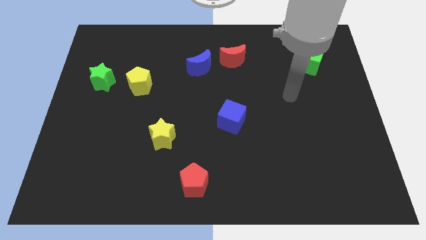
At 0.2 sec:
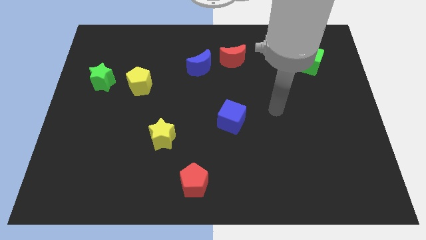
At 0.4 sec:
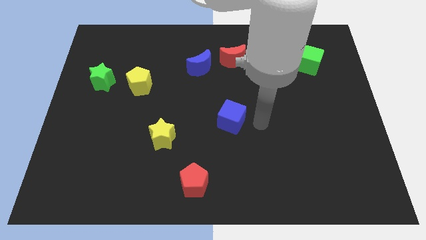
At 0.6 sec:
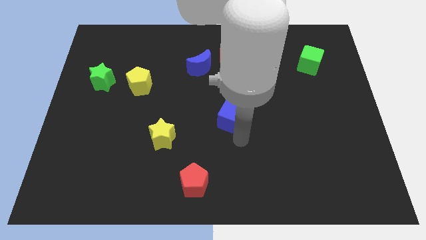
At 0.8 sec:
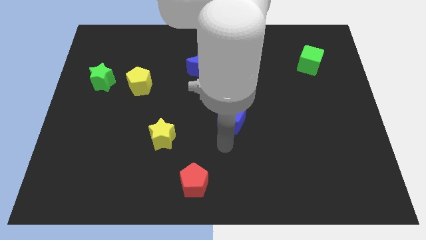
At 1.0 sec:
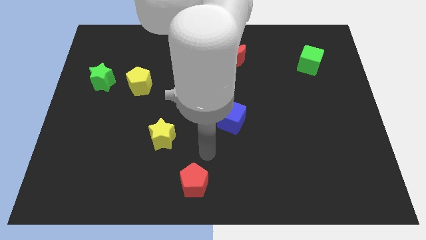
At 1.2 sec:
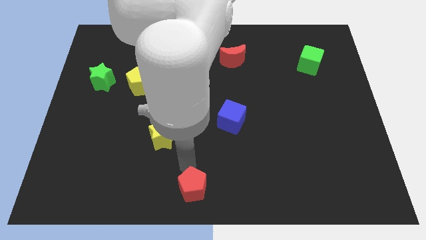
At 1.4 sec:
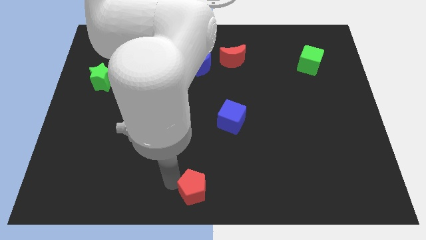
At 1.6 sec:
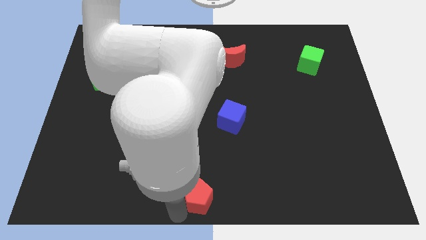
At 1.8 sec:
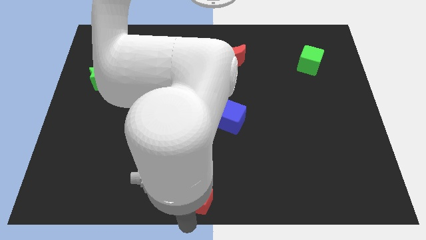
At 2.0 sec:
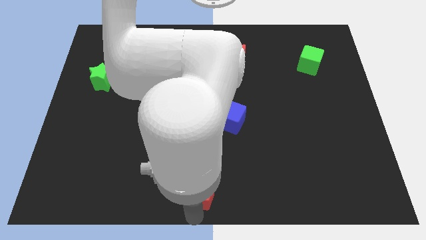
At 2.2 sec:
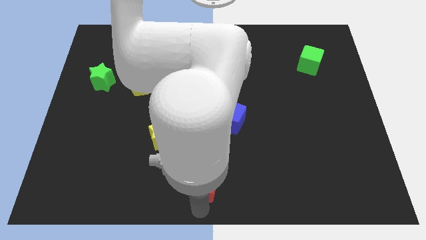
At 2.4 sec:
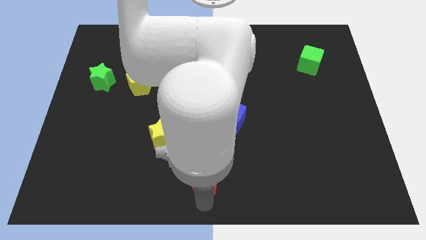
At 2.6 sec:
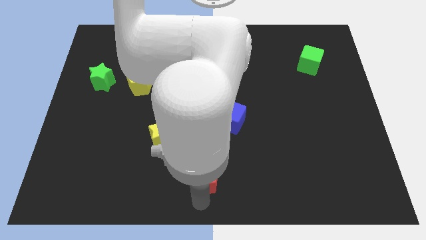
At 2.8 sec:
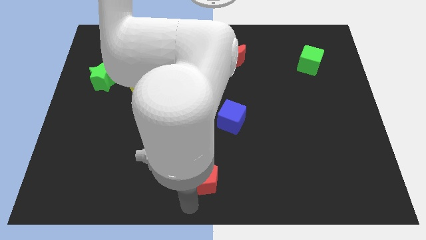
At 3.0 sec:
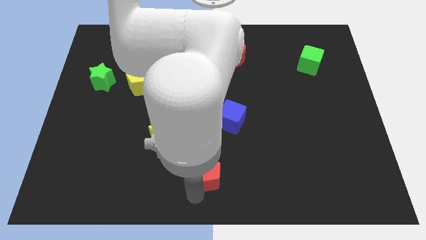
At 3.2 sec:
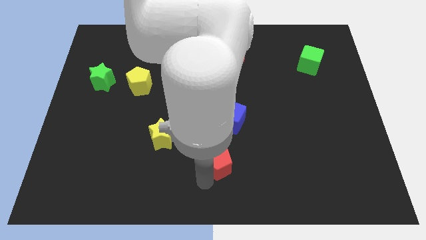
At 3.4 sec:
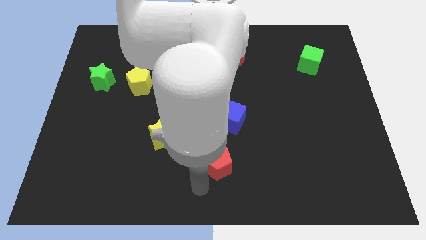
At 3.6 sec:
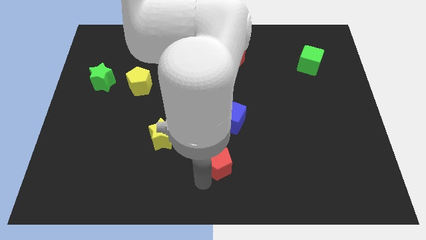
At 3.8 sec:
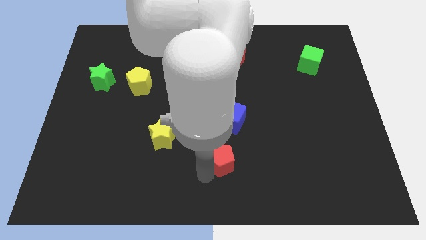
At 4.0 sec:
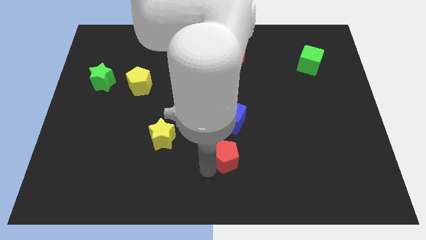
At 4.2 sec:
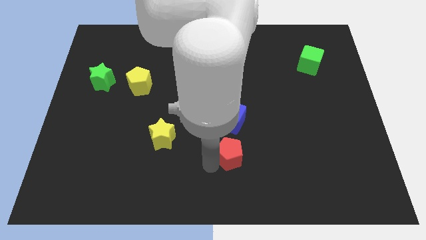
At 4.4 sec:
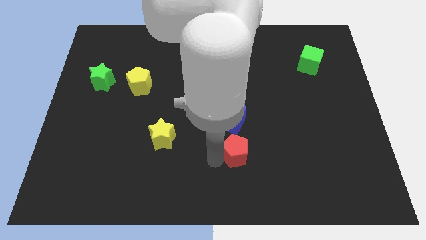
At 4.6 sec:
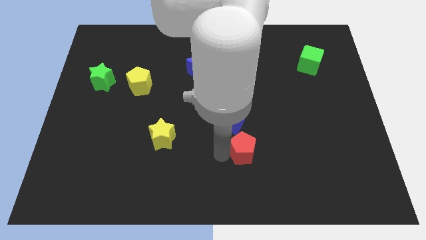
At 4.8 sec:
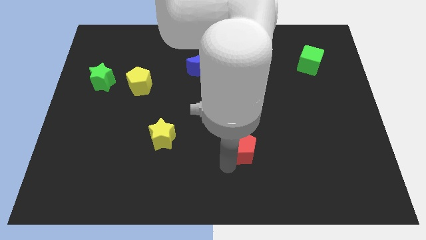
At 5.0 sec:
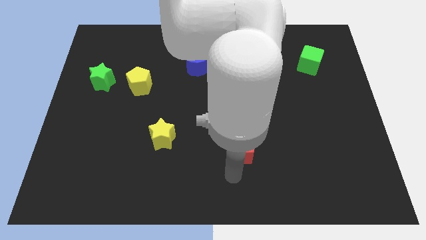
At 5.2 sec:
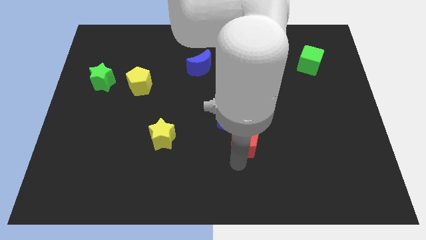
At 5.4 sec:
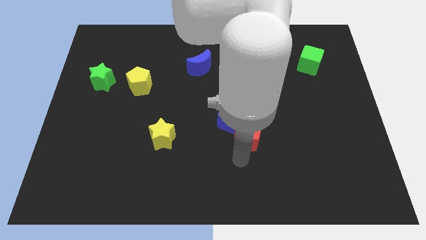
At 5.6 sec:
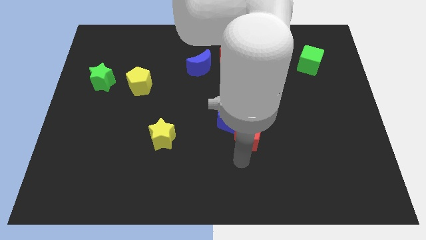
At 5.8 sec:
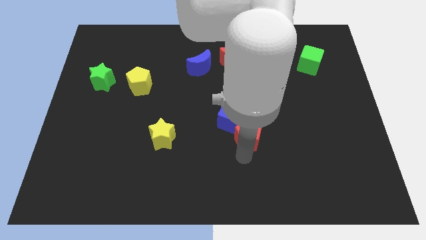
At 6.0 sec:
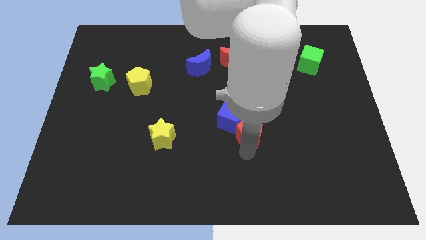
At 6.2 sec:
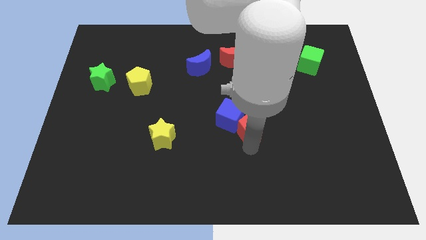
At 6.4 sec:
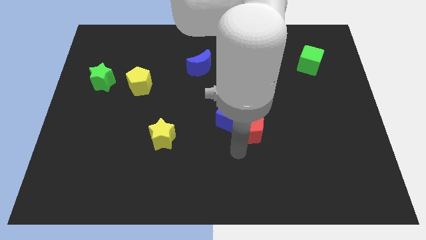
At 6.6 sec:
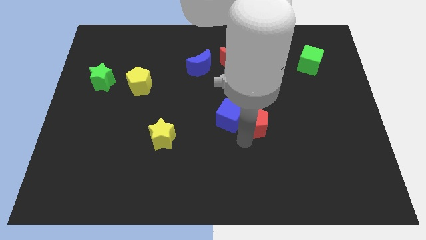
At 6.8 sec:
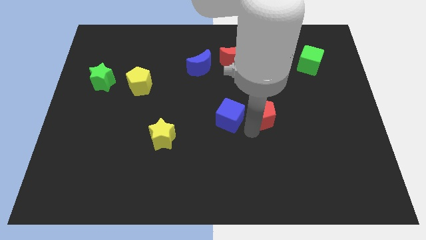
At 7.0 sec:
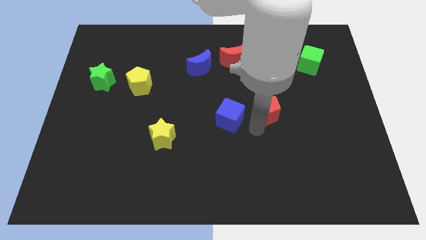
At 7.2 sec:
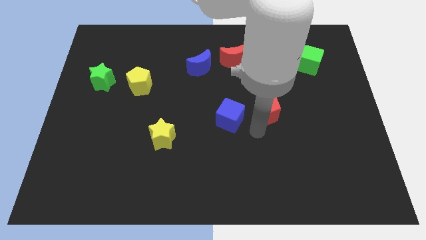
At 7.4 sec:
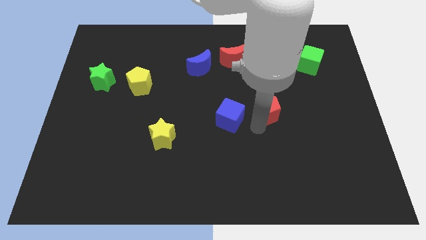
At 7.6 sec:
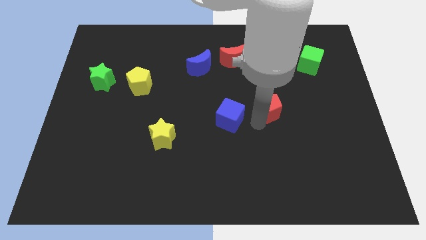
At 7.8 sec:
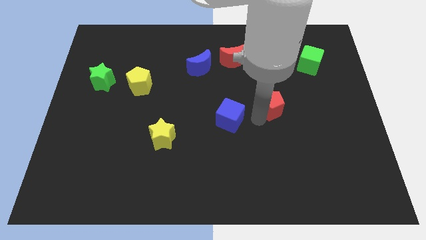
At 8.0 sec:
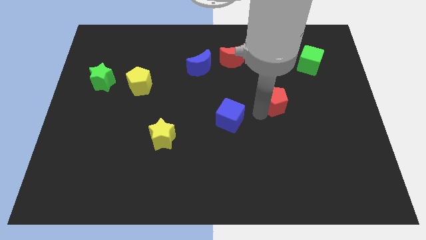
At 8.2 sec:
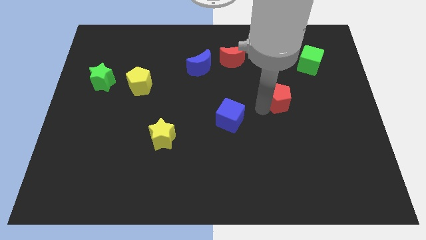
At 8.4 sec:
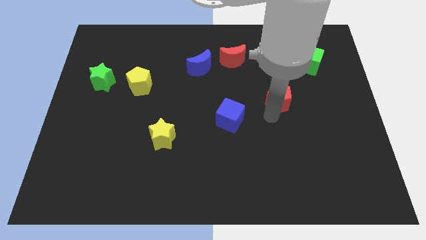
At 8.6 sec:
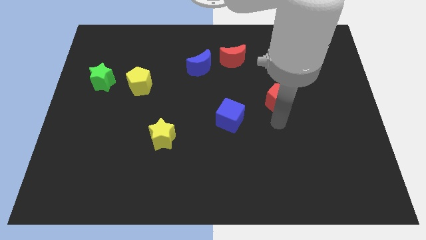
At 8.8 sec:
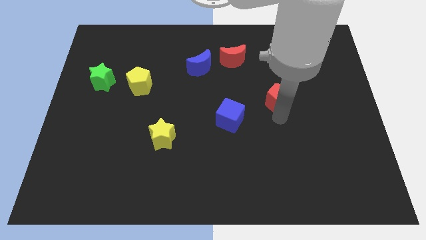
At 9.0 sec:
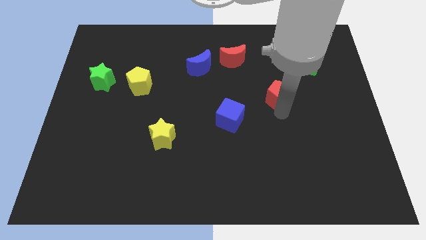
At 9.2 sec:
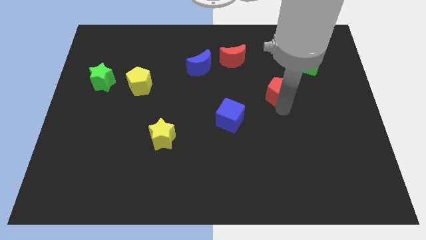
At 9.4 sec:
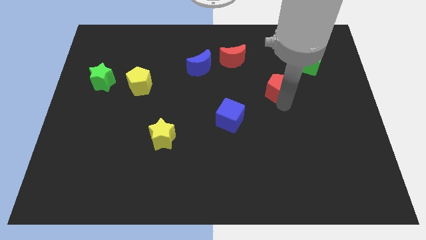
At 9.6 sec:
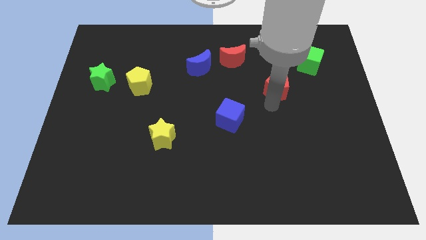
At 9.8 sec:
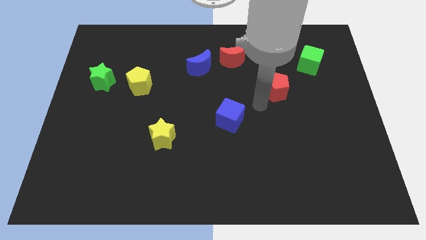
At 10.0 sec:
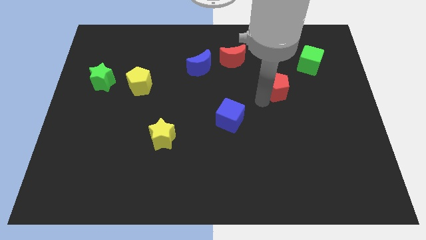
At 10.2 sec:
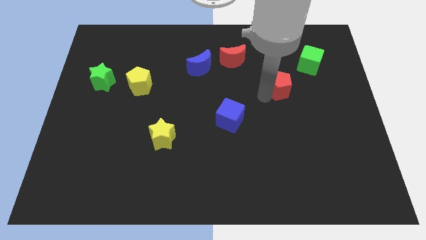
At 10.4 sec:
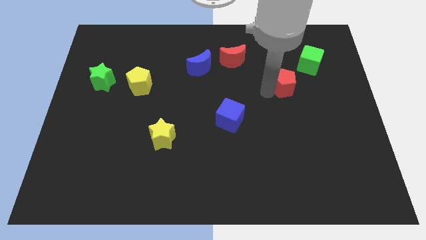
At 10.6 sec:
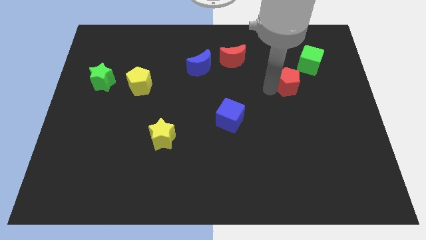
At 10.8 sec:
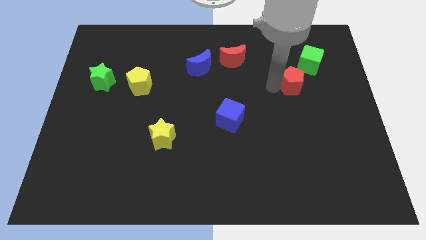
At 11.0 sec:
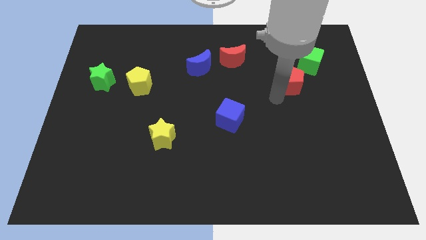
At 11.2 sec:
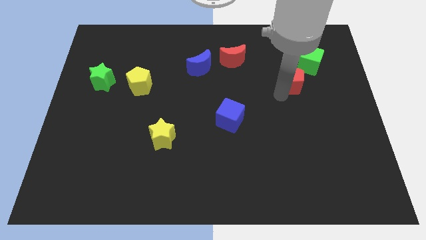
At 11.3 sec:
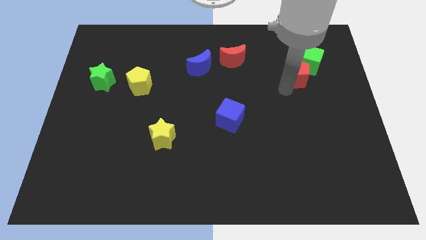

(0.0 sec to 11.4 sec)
move the red pentagon towards the green cube

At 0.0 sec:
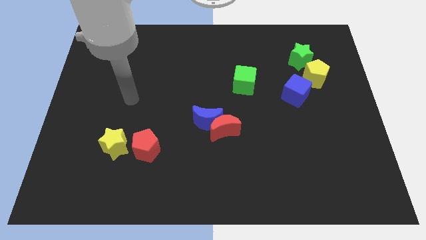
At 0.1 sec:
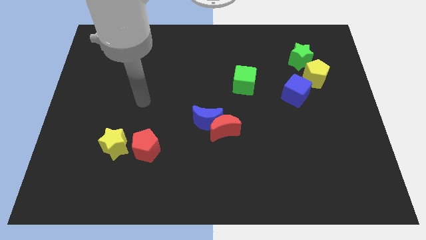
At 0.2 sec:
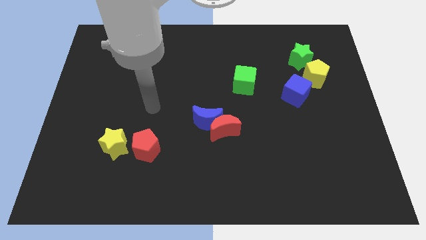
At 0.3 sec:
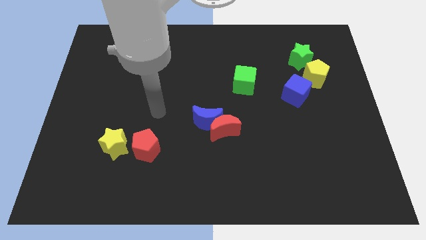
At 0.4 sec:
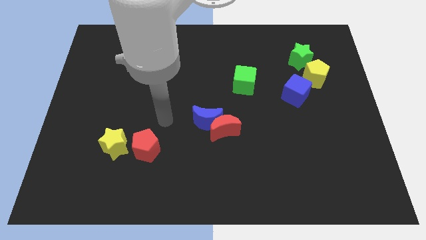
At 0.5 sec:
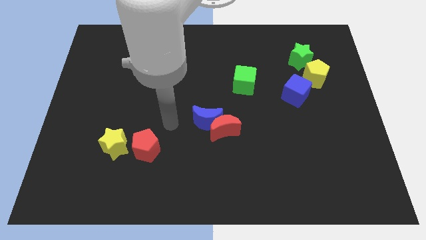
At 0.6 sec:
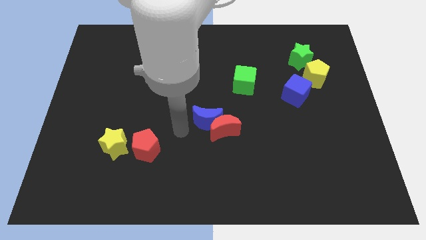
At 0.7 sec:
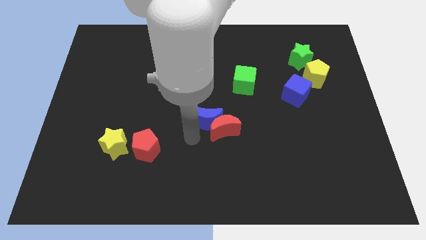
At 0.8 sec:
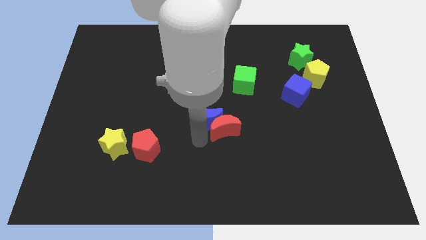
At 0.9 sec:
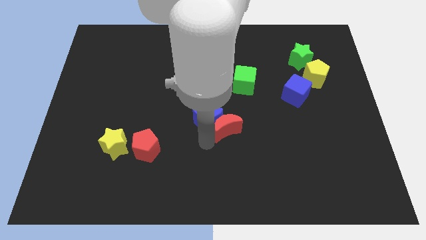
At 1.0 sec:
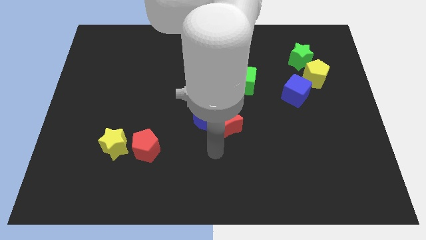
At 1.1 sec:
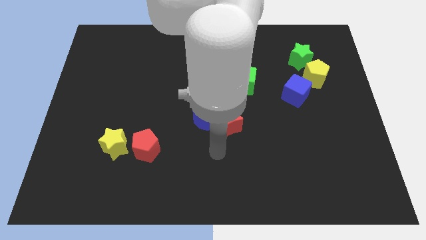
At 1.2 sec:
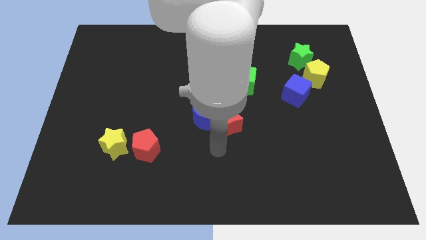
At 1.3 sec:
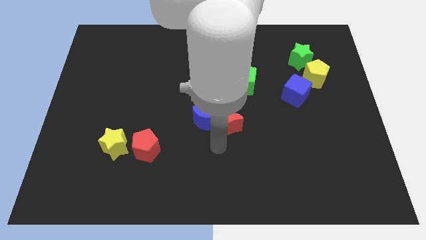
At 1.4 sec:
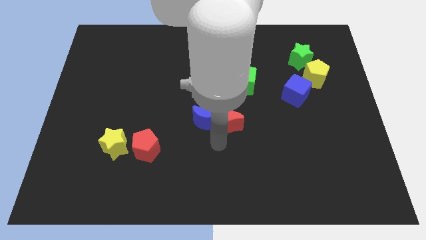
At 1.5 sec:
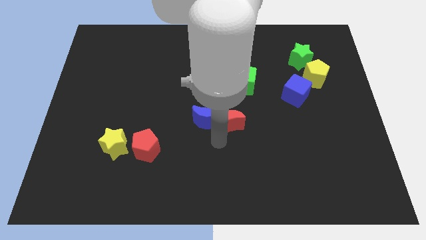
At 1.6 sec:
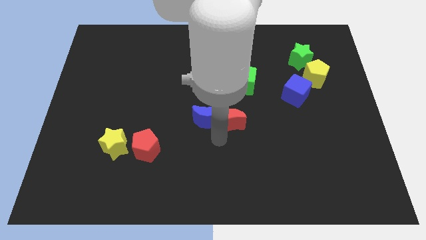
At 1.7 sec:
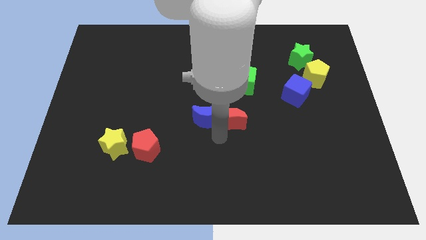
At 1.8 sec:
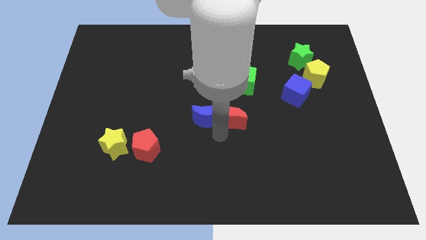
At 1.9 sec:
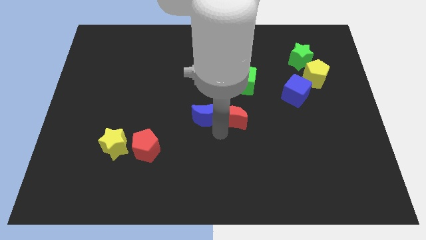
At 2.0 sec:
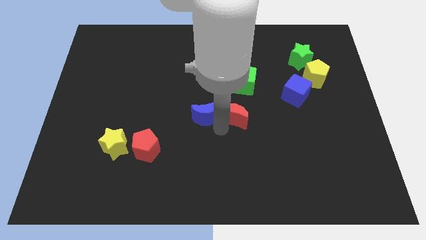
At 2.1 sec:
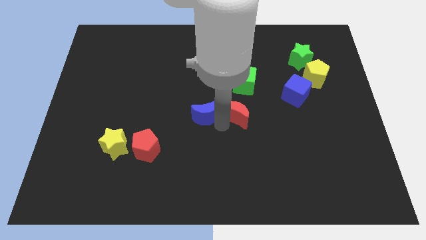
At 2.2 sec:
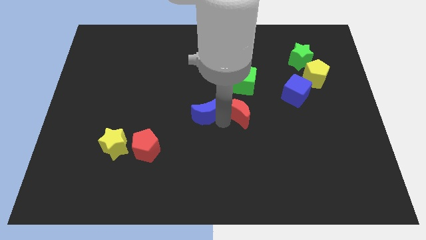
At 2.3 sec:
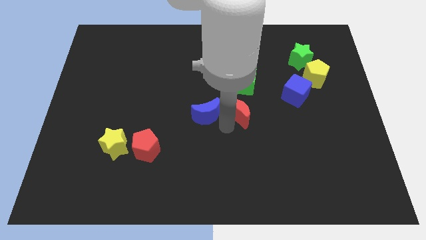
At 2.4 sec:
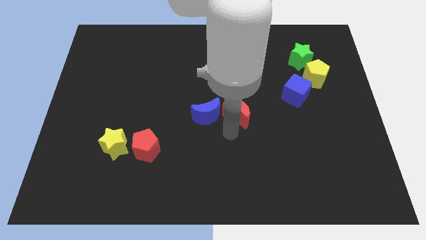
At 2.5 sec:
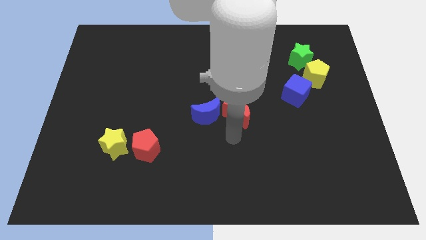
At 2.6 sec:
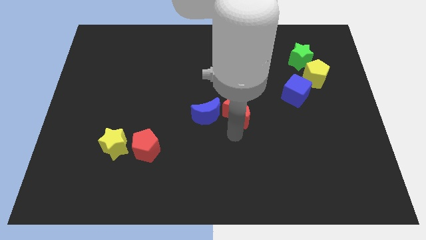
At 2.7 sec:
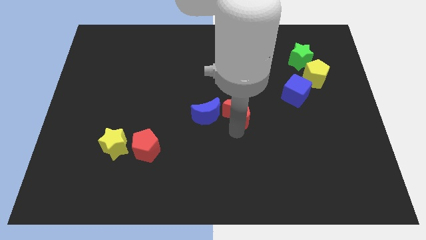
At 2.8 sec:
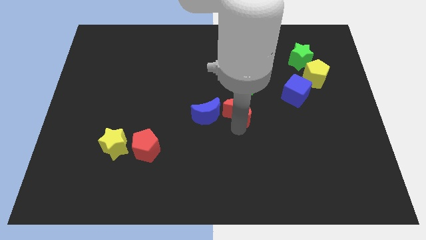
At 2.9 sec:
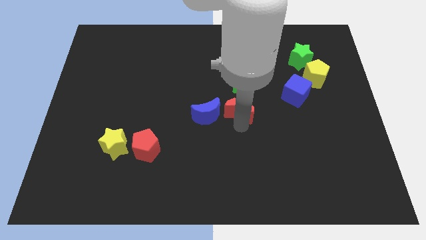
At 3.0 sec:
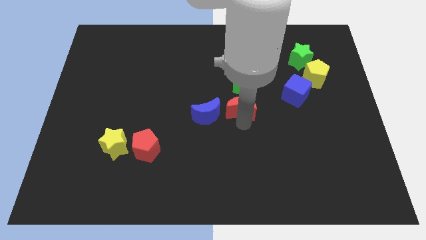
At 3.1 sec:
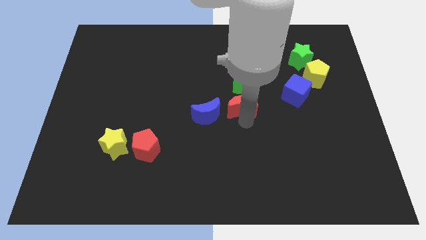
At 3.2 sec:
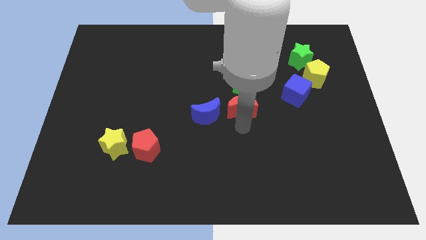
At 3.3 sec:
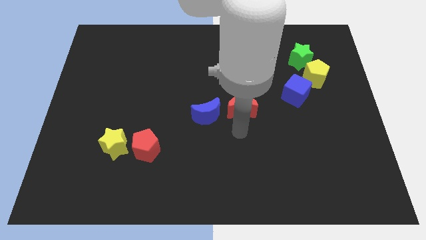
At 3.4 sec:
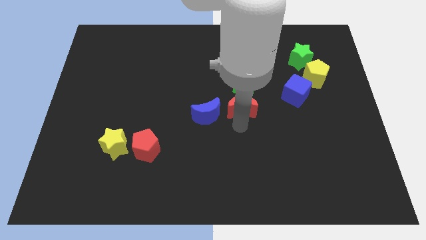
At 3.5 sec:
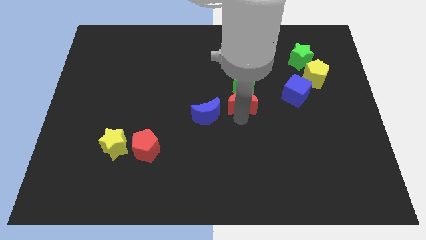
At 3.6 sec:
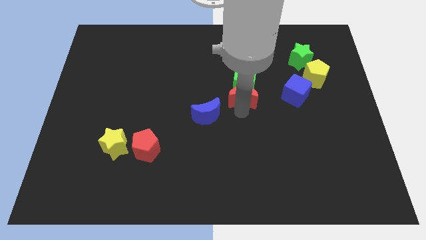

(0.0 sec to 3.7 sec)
slide the red moon next to the green cube
